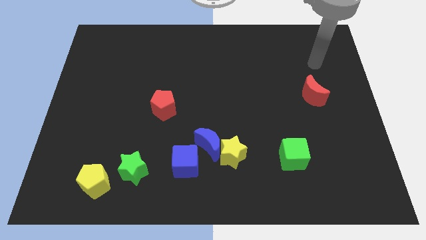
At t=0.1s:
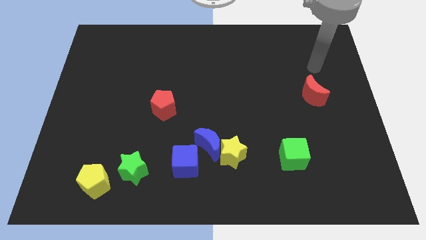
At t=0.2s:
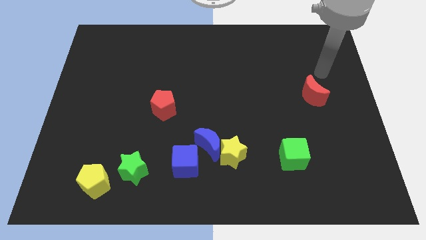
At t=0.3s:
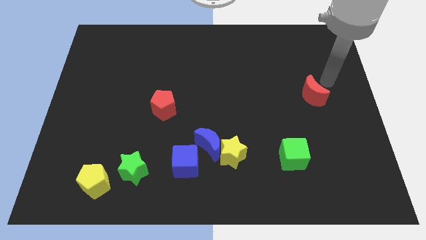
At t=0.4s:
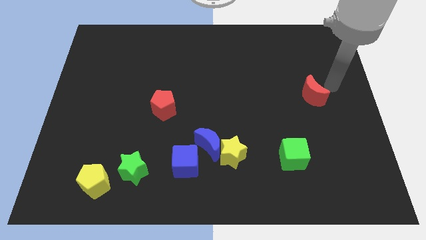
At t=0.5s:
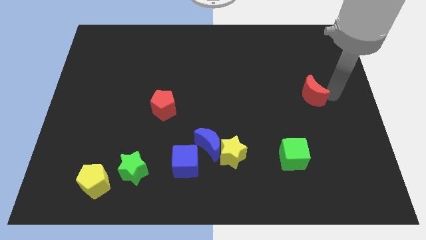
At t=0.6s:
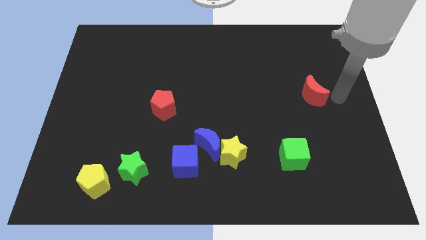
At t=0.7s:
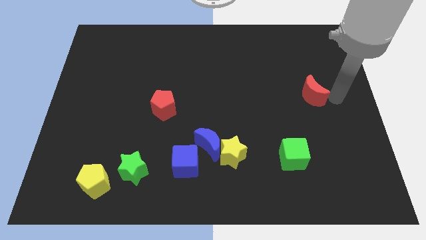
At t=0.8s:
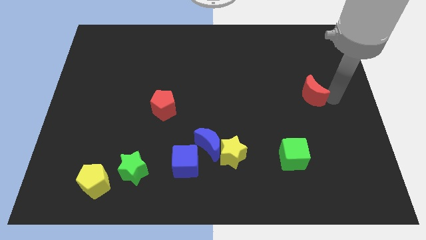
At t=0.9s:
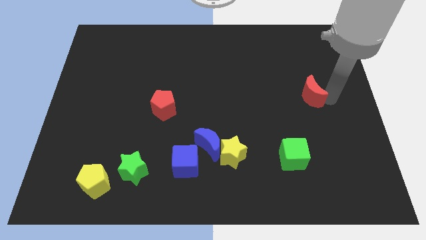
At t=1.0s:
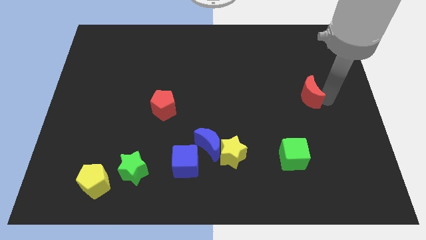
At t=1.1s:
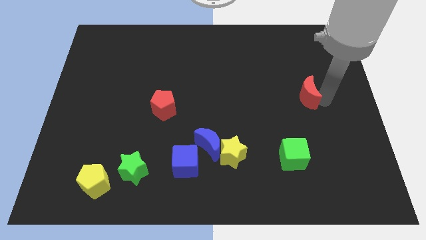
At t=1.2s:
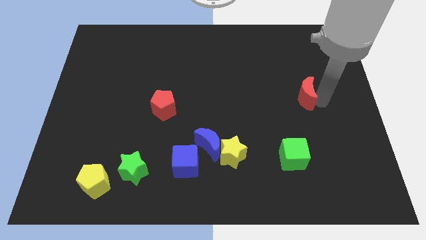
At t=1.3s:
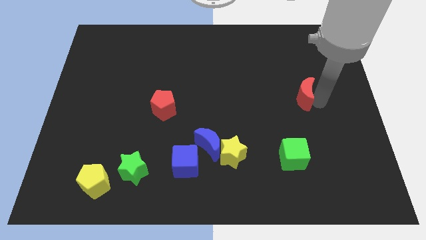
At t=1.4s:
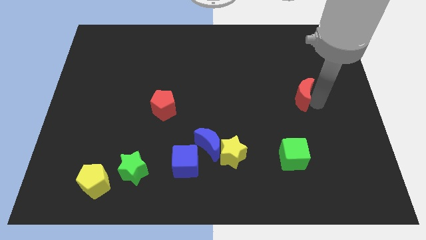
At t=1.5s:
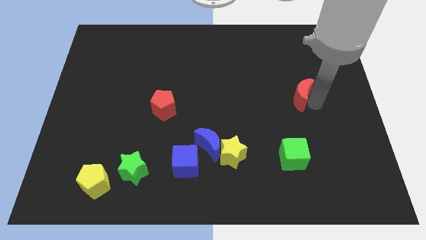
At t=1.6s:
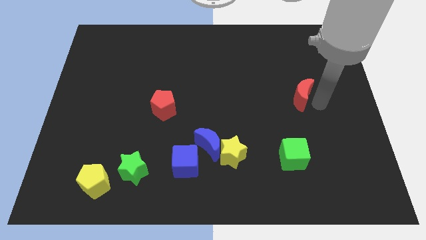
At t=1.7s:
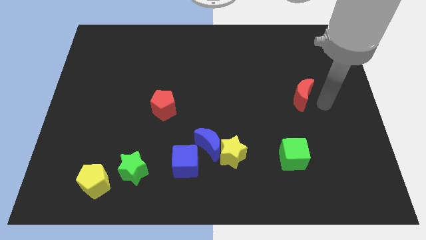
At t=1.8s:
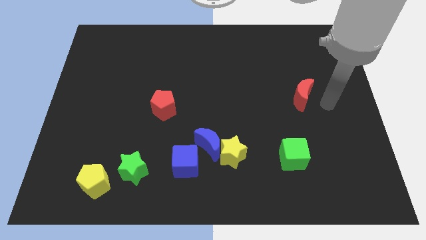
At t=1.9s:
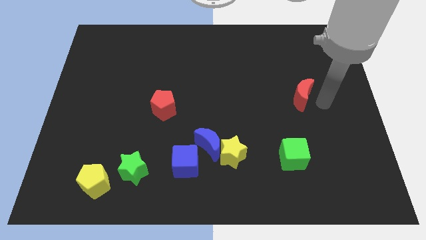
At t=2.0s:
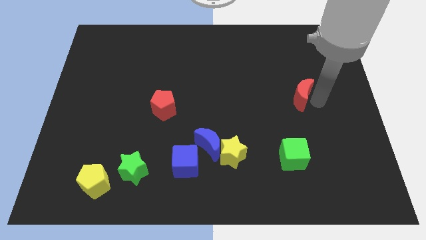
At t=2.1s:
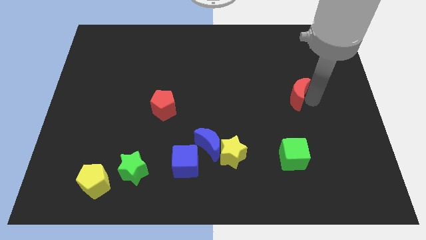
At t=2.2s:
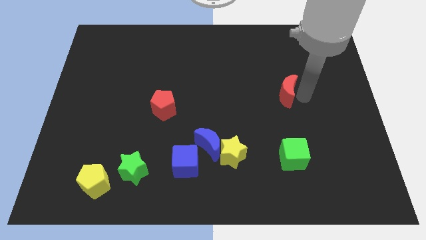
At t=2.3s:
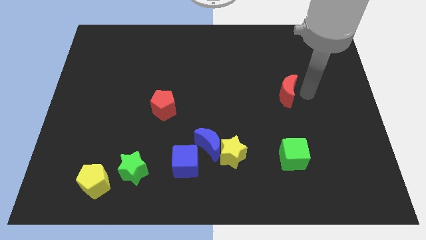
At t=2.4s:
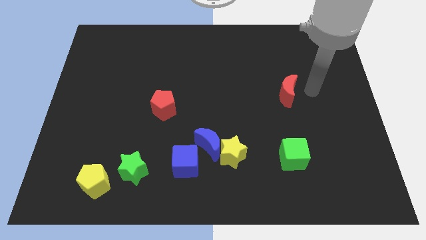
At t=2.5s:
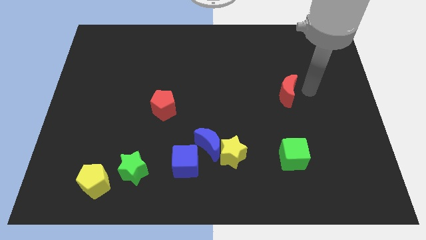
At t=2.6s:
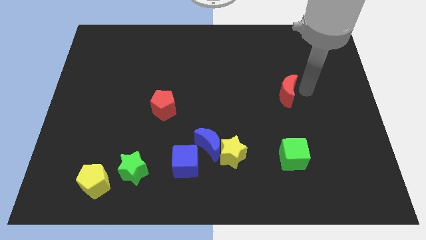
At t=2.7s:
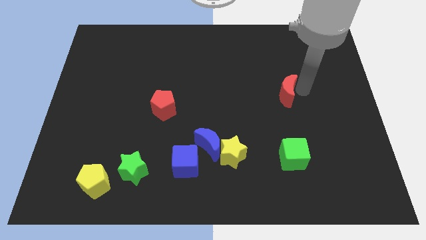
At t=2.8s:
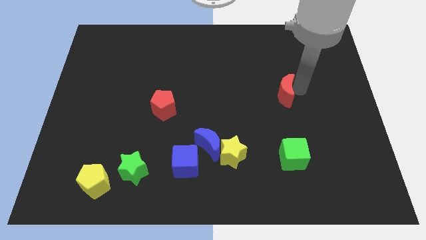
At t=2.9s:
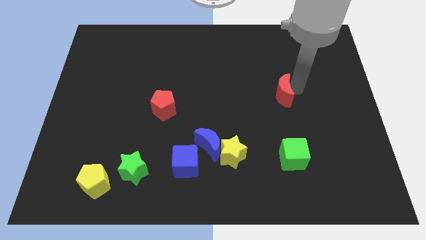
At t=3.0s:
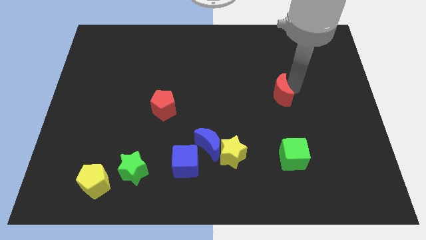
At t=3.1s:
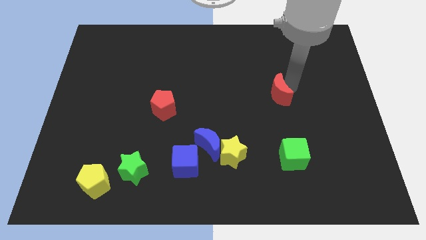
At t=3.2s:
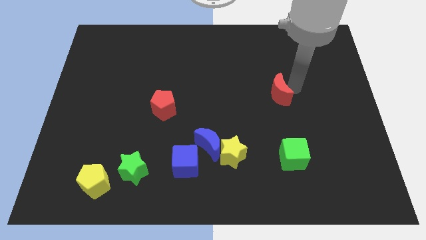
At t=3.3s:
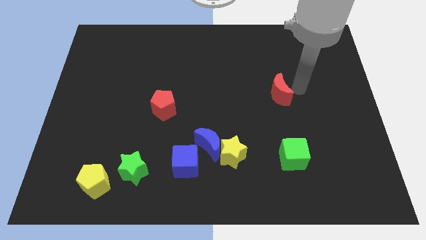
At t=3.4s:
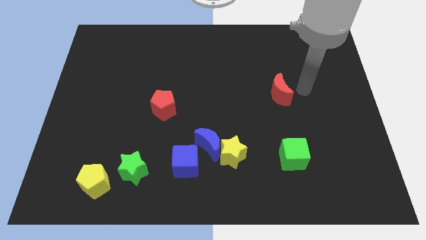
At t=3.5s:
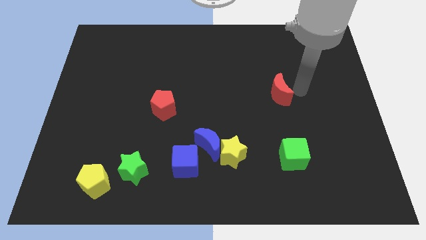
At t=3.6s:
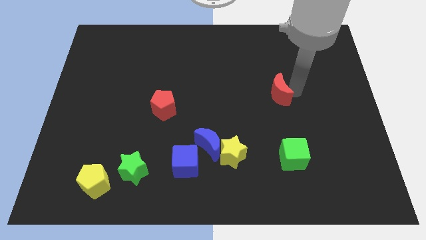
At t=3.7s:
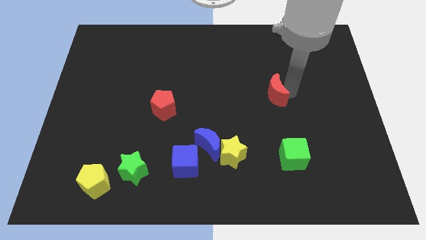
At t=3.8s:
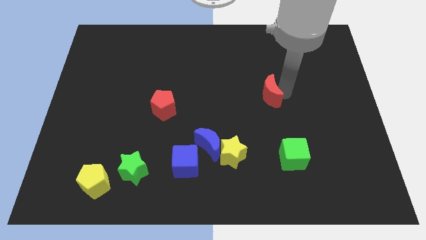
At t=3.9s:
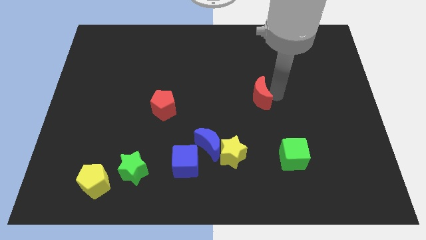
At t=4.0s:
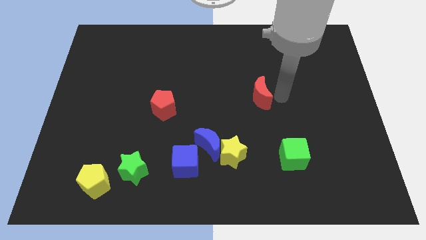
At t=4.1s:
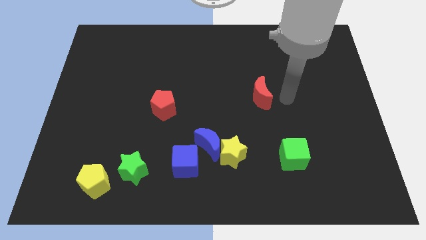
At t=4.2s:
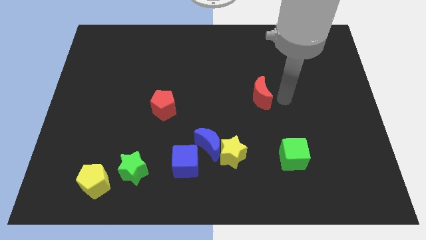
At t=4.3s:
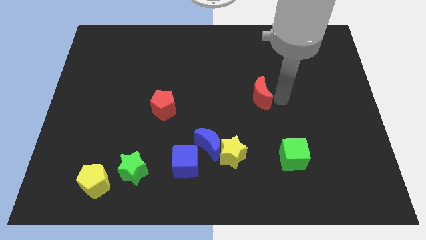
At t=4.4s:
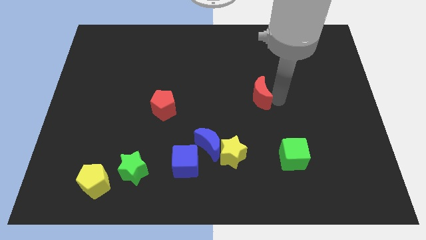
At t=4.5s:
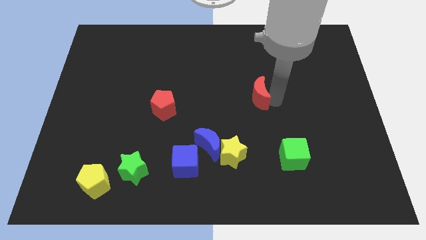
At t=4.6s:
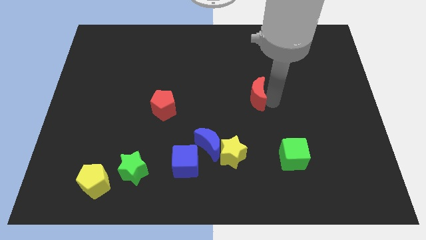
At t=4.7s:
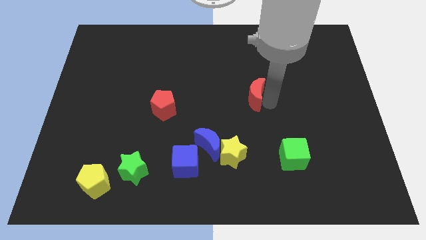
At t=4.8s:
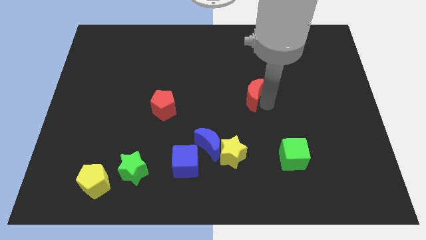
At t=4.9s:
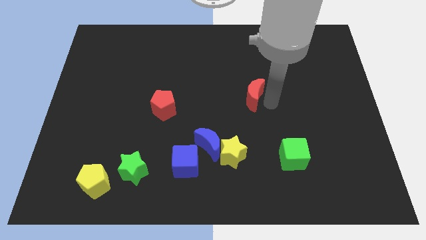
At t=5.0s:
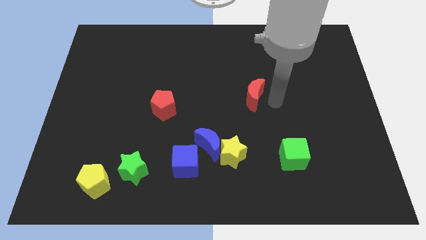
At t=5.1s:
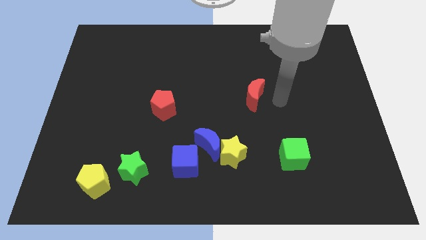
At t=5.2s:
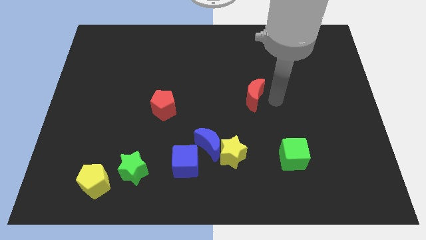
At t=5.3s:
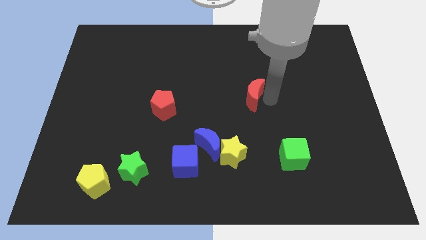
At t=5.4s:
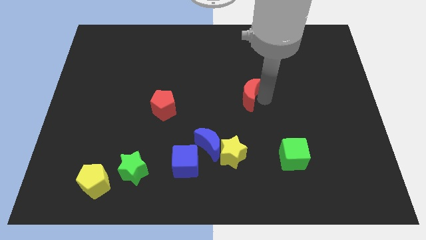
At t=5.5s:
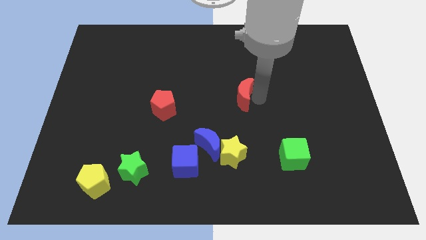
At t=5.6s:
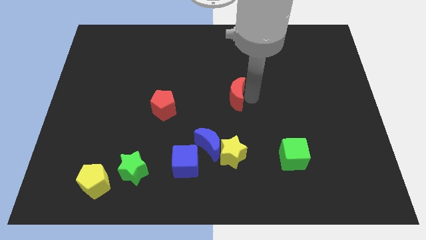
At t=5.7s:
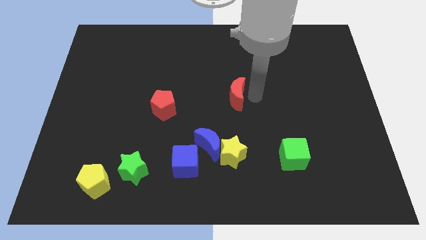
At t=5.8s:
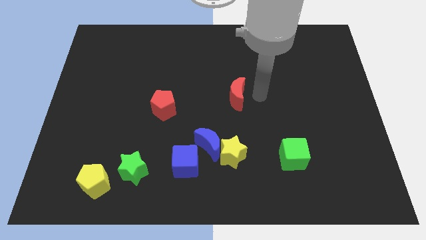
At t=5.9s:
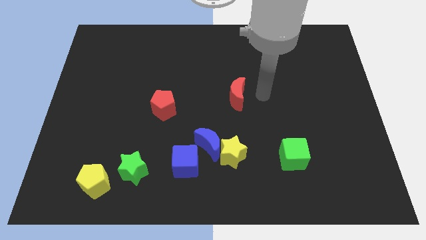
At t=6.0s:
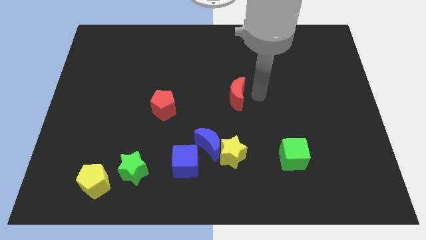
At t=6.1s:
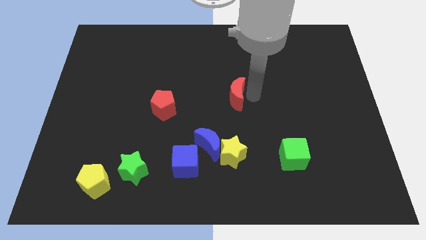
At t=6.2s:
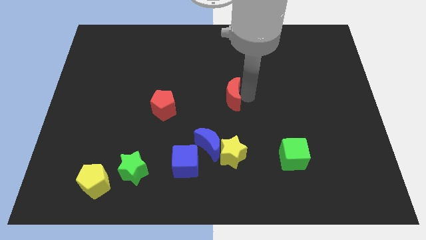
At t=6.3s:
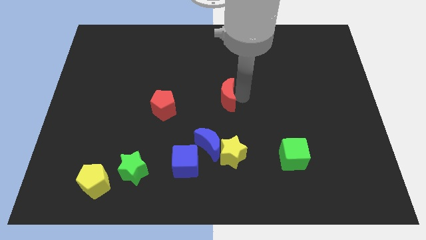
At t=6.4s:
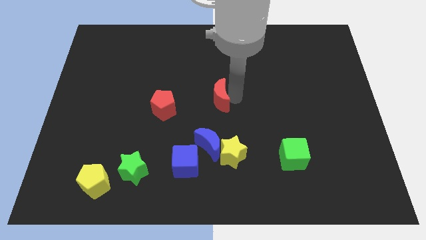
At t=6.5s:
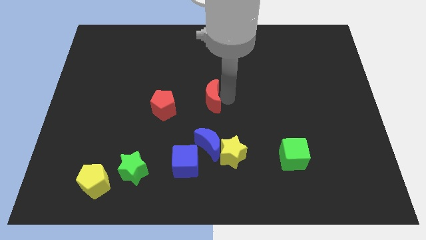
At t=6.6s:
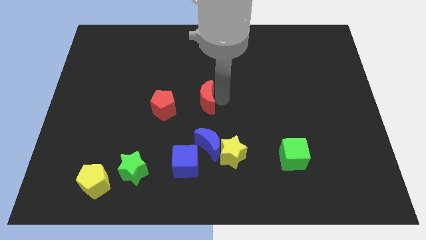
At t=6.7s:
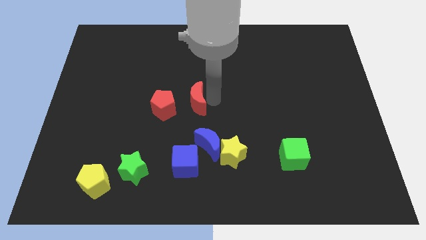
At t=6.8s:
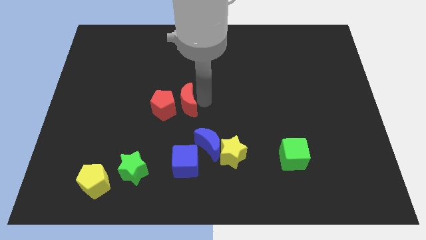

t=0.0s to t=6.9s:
push the red moon close to the red pentagon

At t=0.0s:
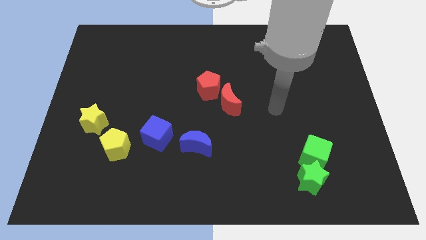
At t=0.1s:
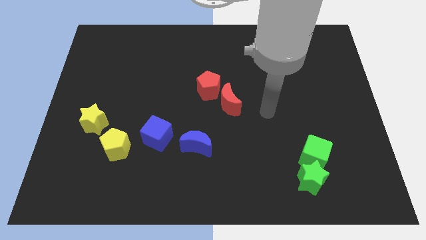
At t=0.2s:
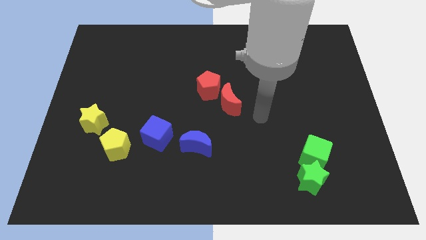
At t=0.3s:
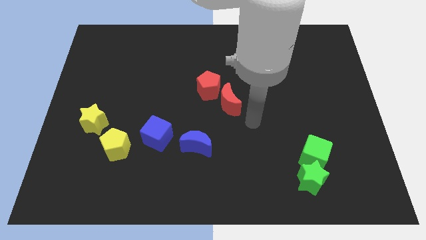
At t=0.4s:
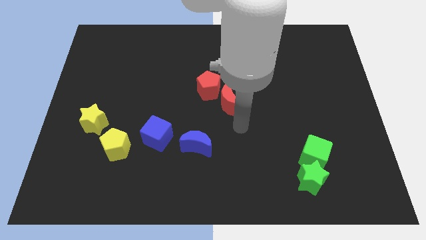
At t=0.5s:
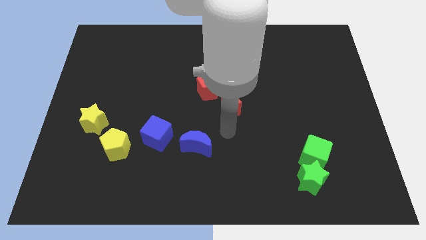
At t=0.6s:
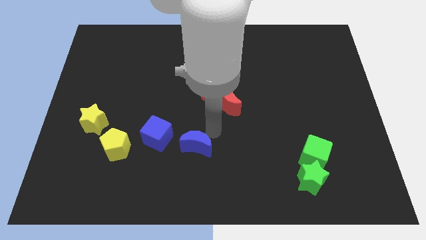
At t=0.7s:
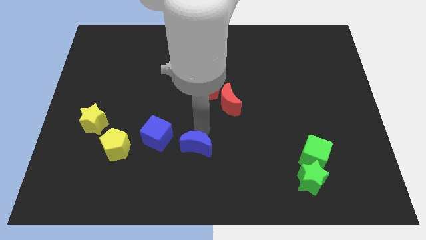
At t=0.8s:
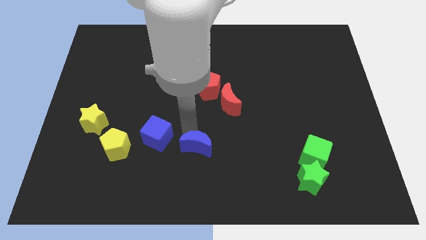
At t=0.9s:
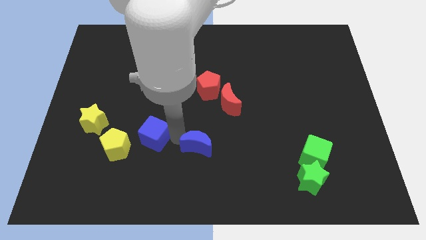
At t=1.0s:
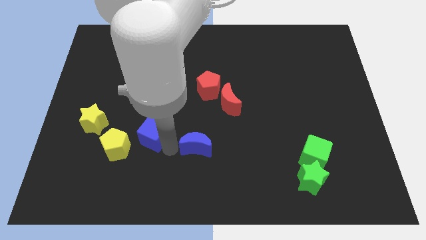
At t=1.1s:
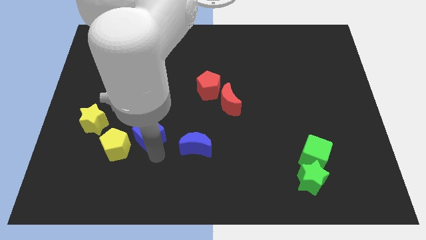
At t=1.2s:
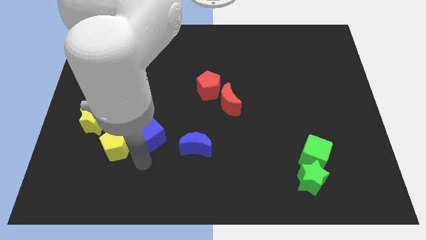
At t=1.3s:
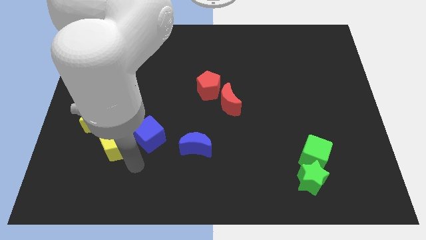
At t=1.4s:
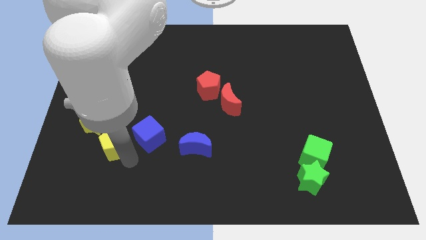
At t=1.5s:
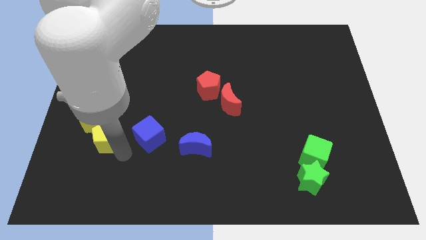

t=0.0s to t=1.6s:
slide the yellow pentagon next to the yellow star
